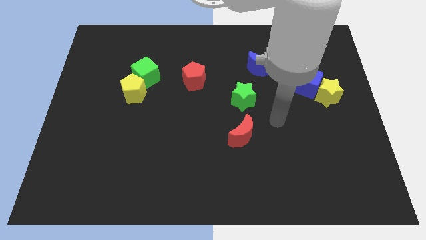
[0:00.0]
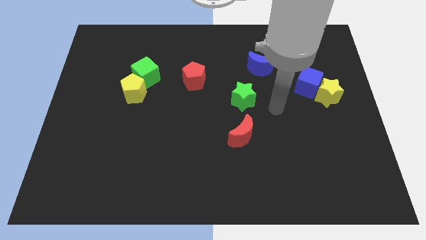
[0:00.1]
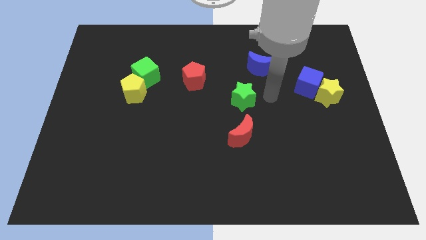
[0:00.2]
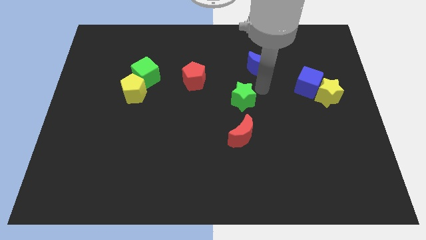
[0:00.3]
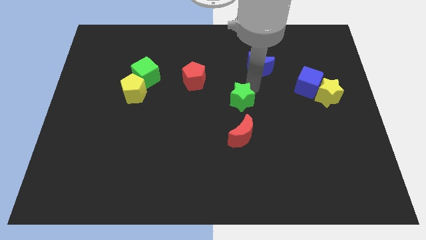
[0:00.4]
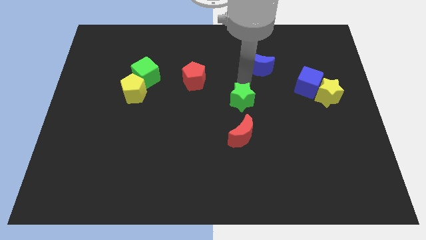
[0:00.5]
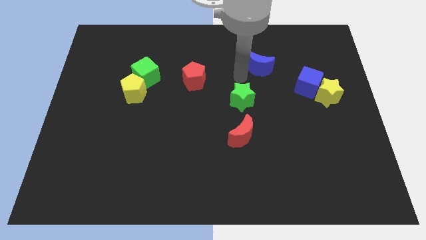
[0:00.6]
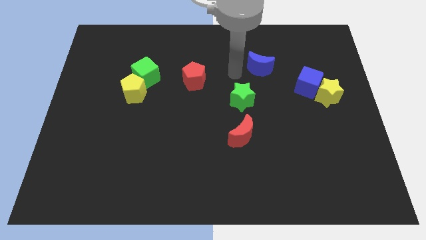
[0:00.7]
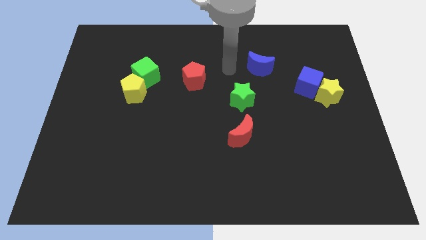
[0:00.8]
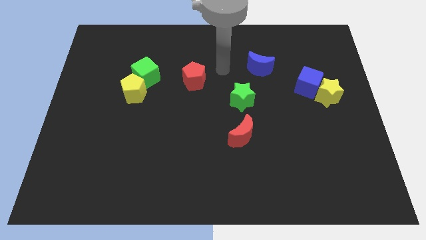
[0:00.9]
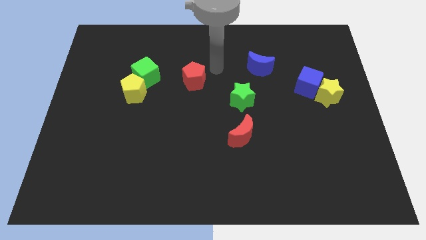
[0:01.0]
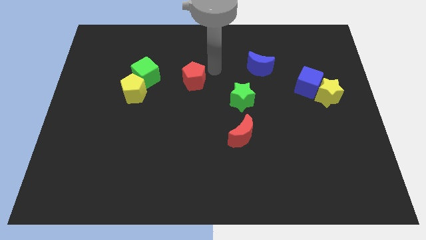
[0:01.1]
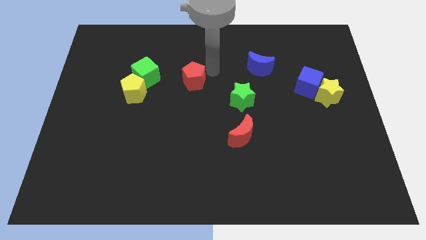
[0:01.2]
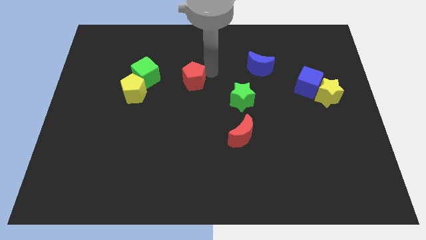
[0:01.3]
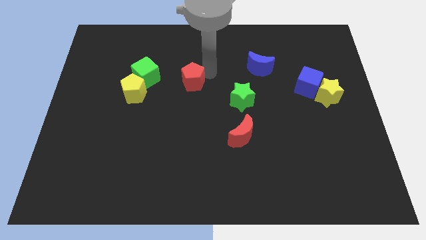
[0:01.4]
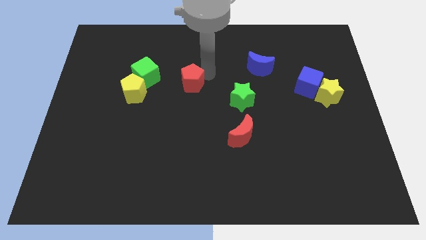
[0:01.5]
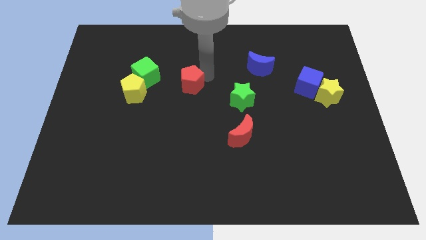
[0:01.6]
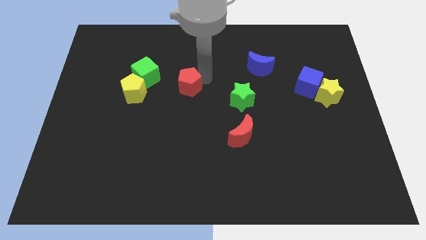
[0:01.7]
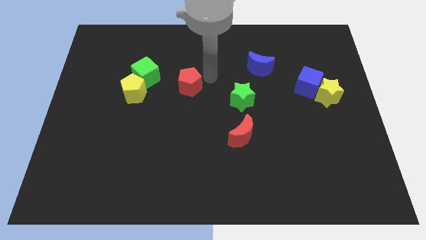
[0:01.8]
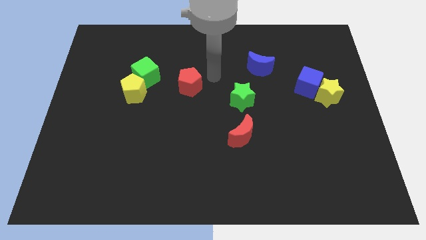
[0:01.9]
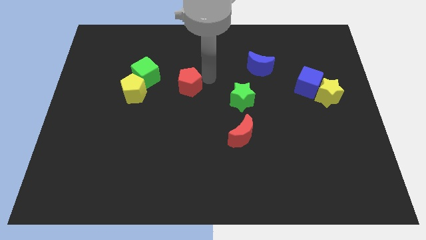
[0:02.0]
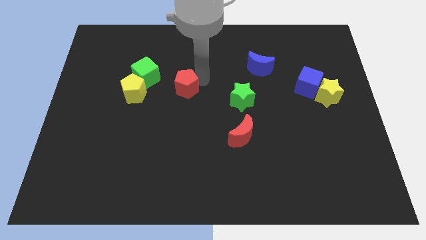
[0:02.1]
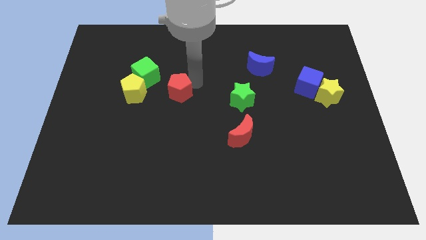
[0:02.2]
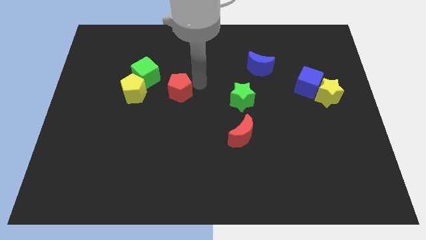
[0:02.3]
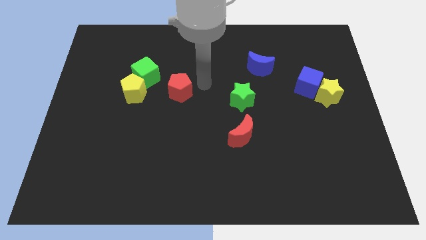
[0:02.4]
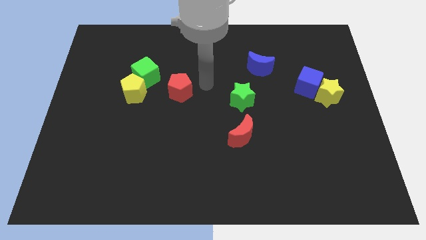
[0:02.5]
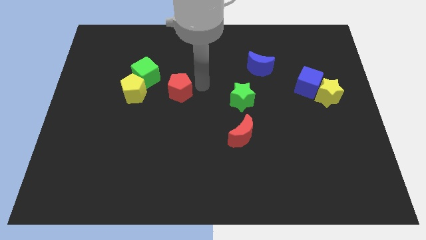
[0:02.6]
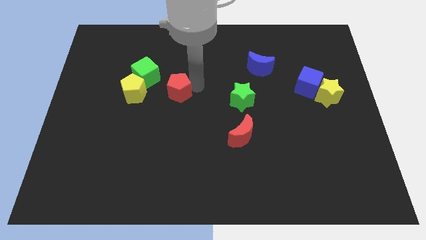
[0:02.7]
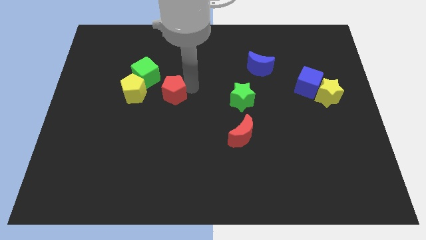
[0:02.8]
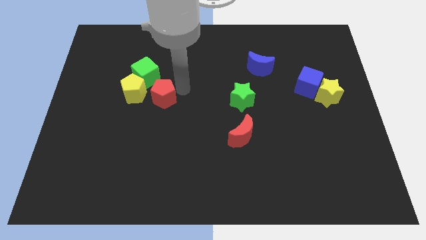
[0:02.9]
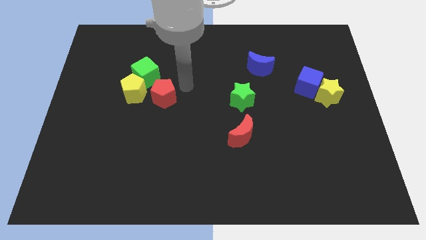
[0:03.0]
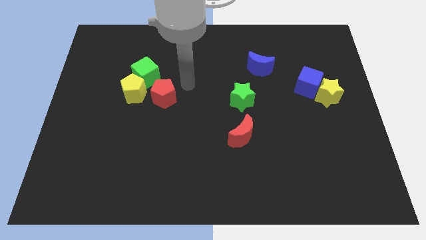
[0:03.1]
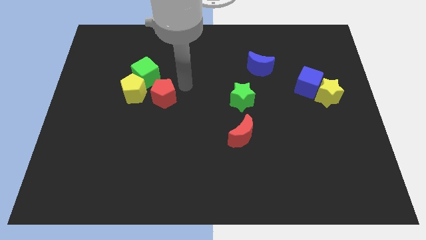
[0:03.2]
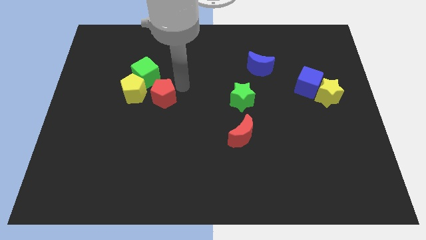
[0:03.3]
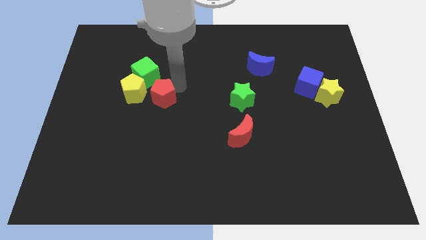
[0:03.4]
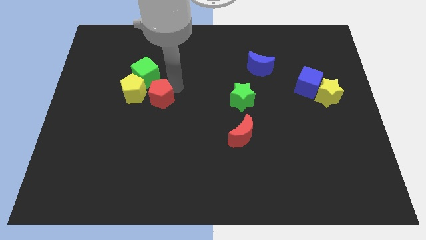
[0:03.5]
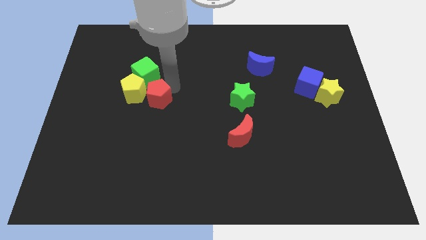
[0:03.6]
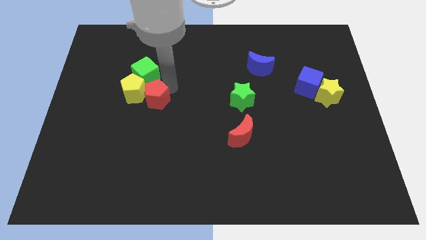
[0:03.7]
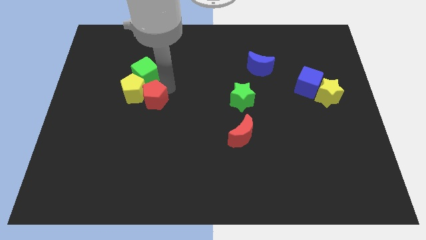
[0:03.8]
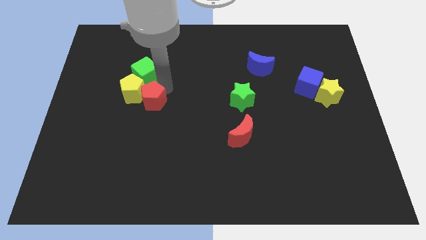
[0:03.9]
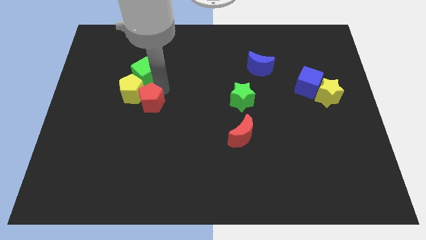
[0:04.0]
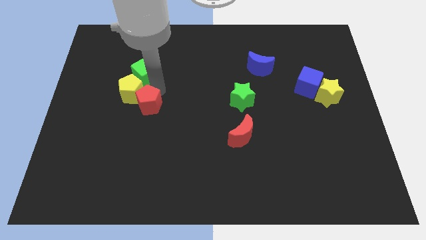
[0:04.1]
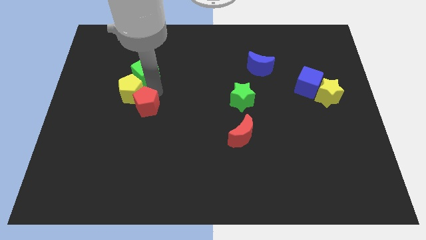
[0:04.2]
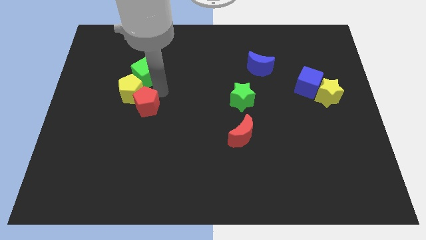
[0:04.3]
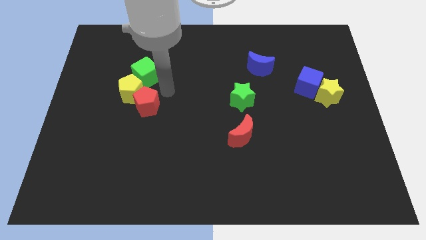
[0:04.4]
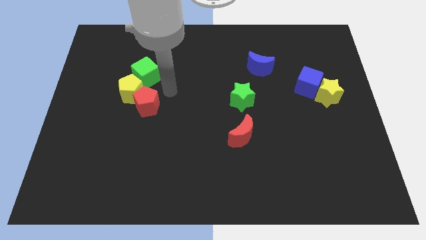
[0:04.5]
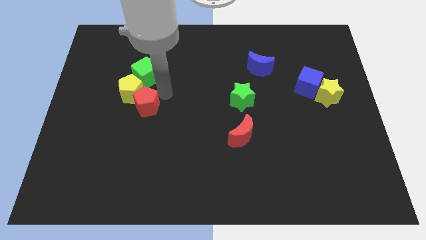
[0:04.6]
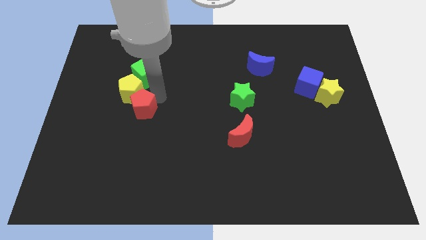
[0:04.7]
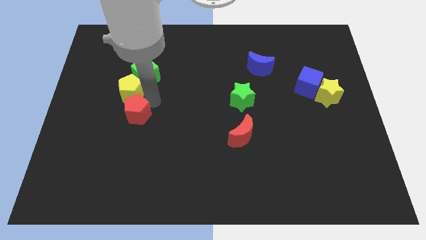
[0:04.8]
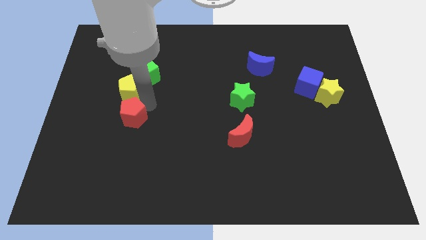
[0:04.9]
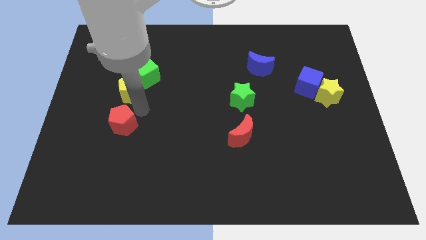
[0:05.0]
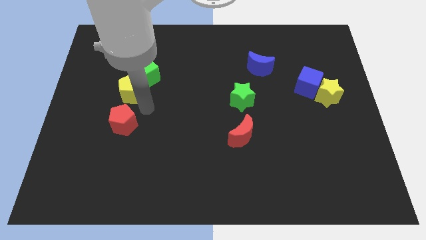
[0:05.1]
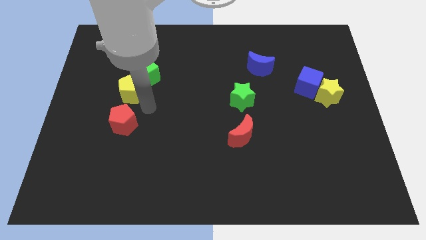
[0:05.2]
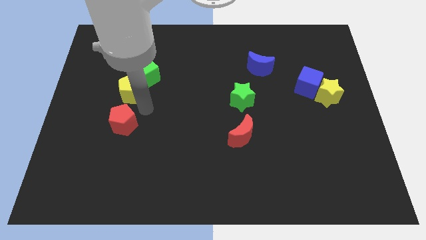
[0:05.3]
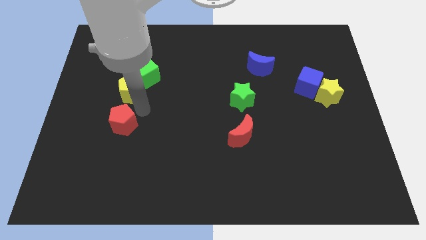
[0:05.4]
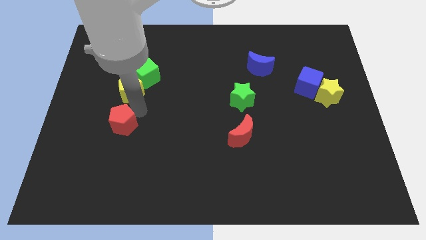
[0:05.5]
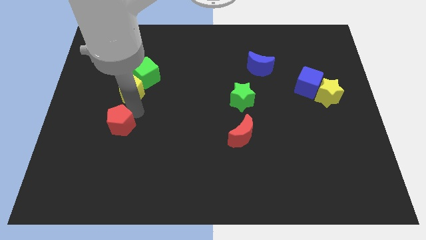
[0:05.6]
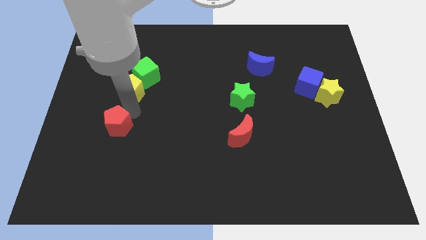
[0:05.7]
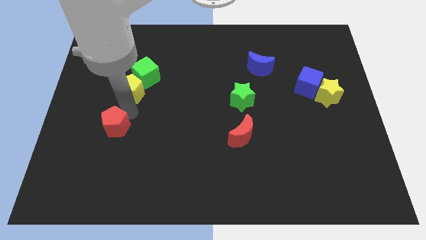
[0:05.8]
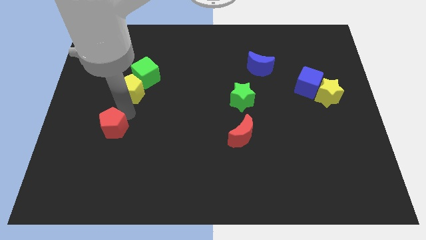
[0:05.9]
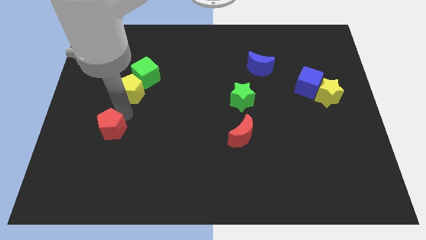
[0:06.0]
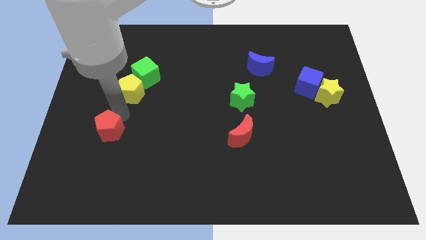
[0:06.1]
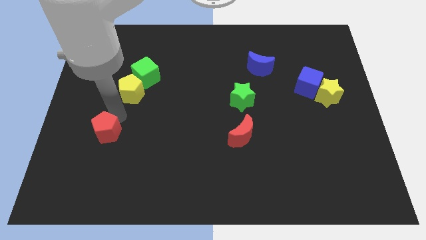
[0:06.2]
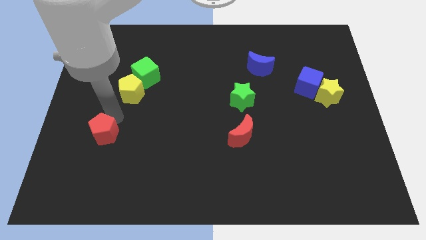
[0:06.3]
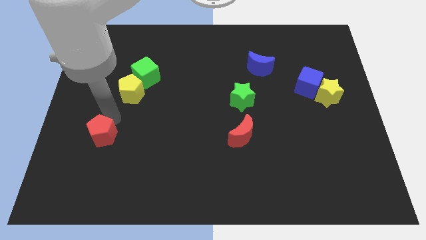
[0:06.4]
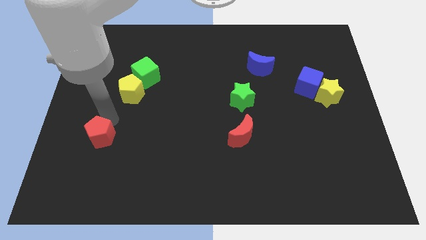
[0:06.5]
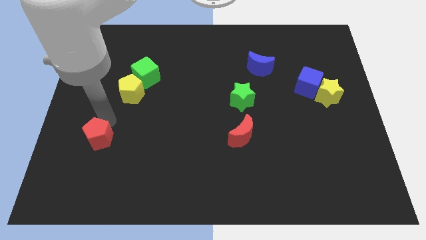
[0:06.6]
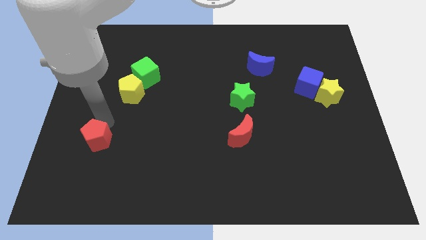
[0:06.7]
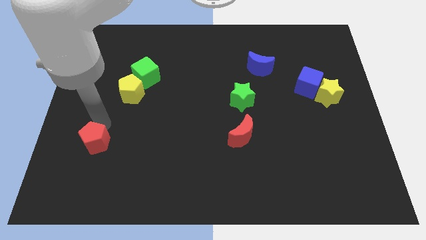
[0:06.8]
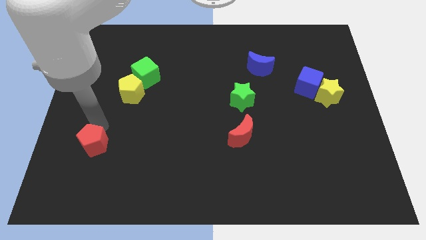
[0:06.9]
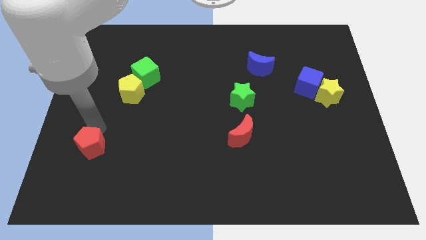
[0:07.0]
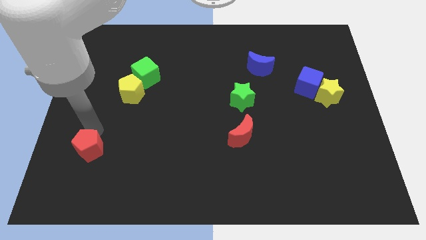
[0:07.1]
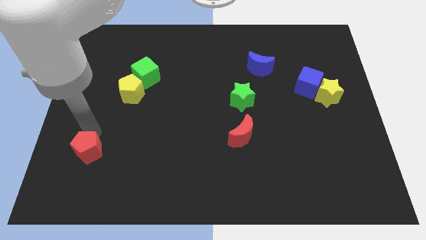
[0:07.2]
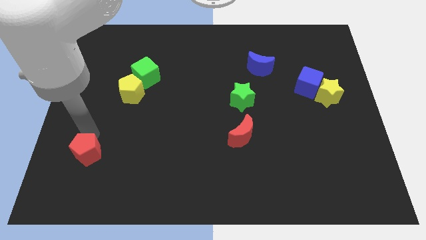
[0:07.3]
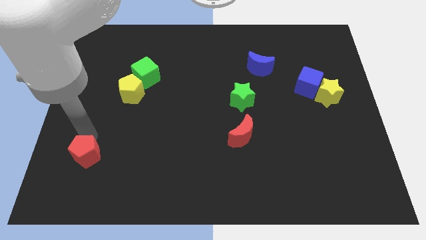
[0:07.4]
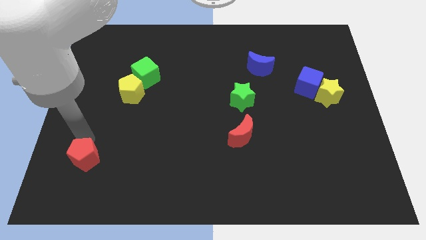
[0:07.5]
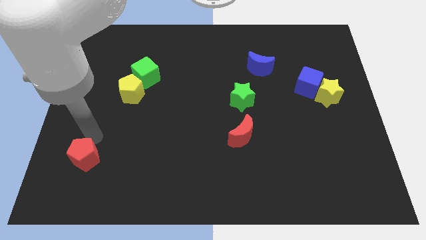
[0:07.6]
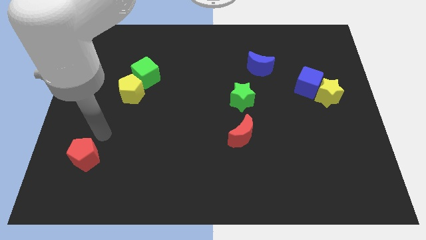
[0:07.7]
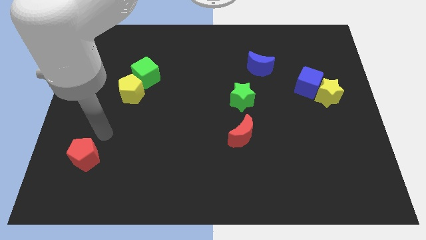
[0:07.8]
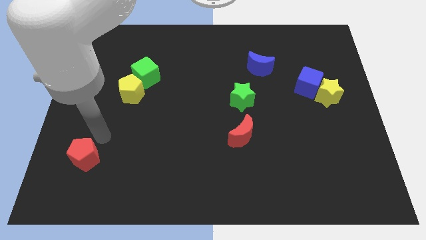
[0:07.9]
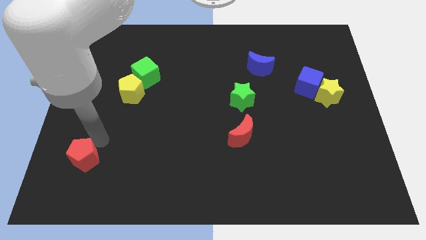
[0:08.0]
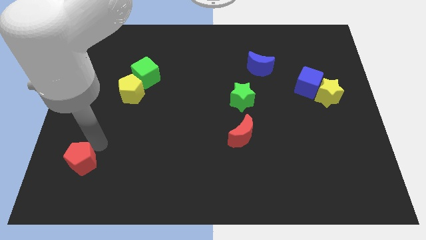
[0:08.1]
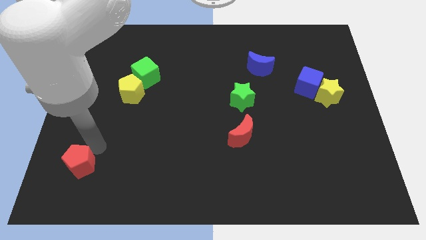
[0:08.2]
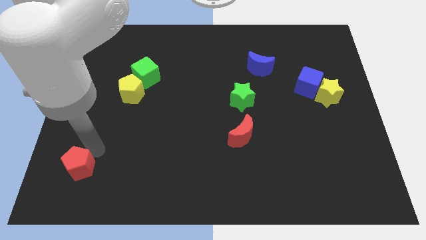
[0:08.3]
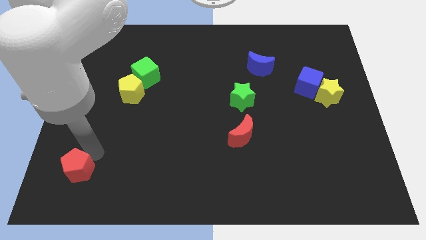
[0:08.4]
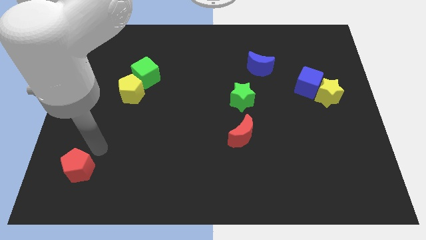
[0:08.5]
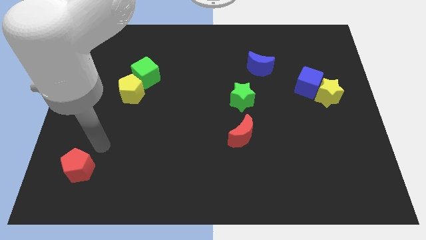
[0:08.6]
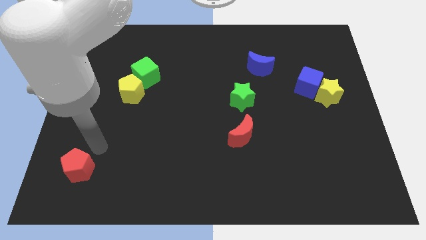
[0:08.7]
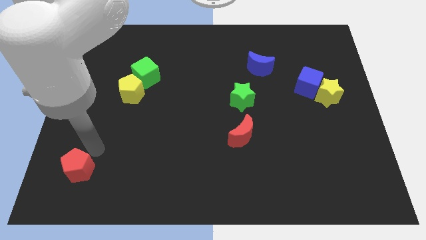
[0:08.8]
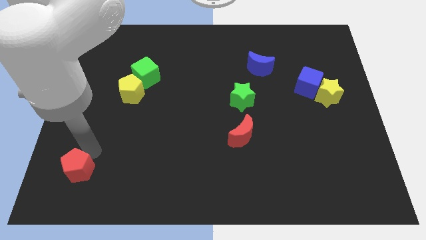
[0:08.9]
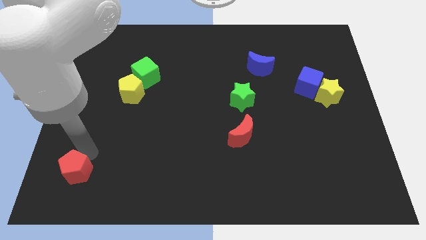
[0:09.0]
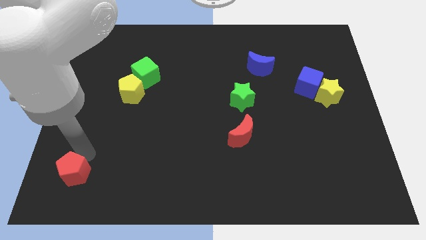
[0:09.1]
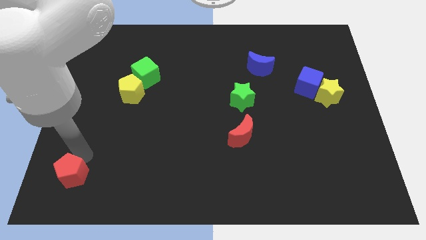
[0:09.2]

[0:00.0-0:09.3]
put the red pentagon to the bottom left of the board
